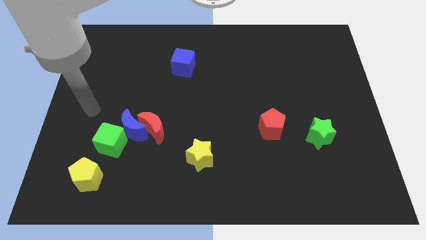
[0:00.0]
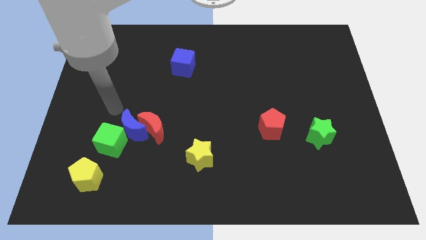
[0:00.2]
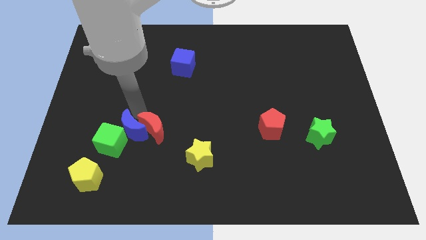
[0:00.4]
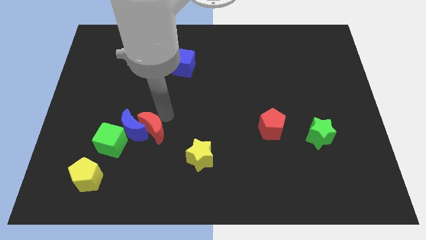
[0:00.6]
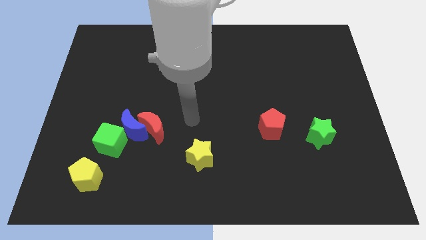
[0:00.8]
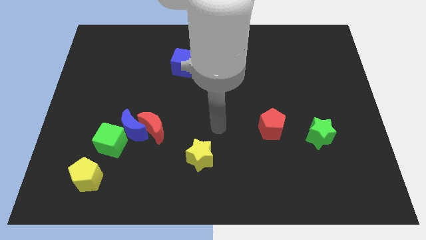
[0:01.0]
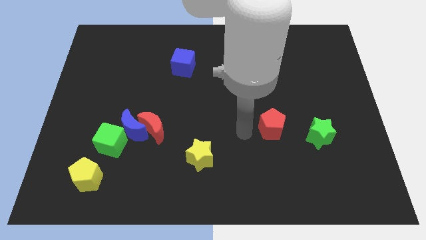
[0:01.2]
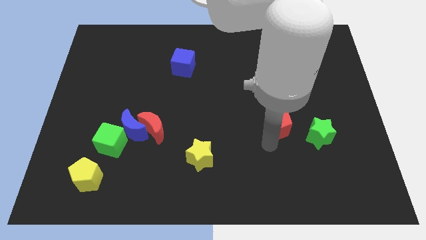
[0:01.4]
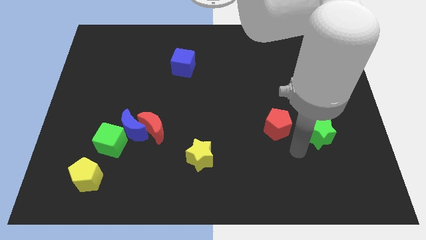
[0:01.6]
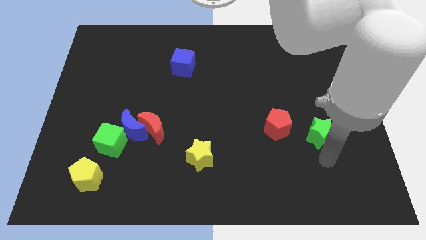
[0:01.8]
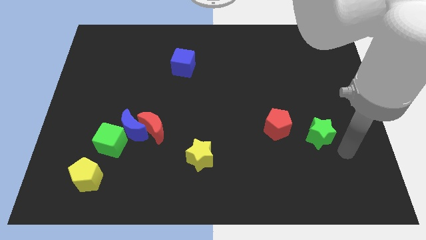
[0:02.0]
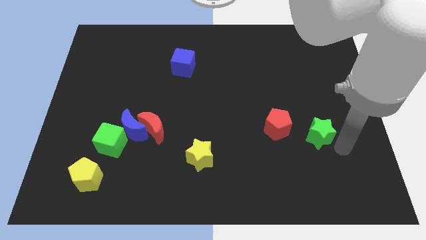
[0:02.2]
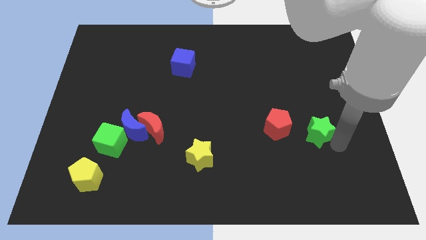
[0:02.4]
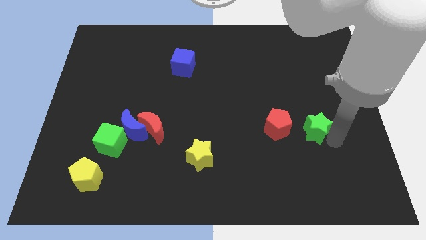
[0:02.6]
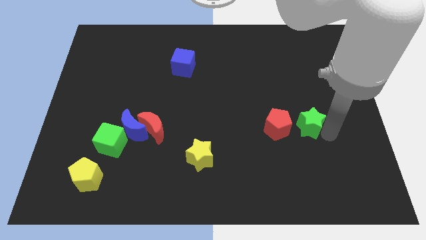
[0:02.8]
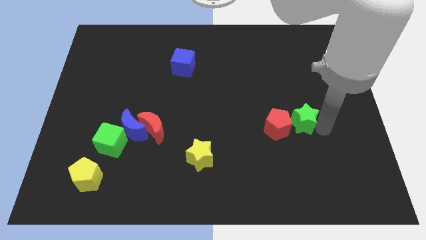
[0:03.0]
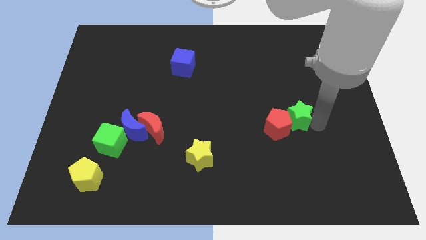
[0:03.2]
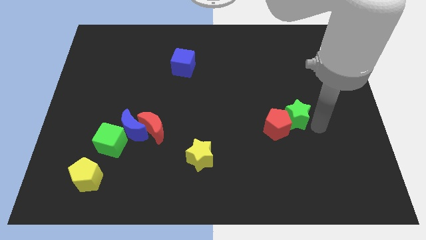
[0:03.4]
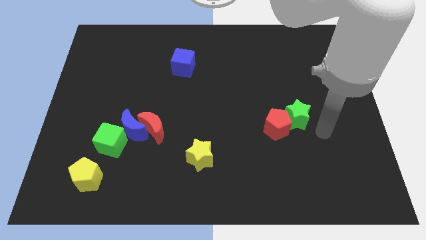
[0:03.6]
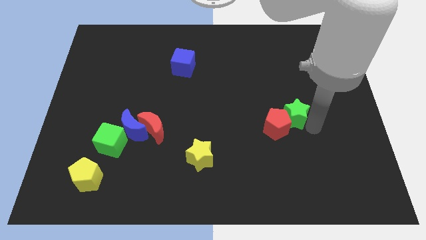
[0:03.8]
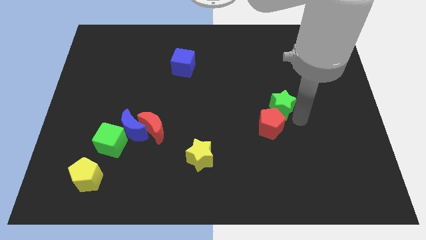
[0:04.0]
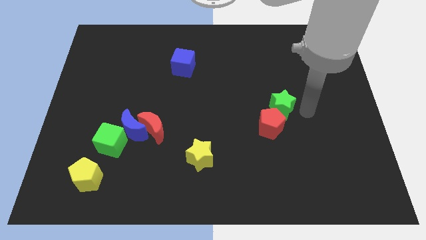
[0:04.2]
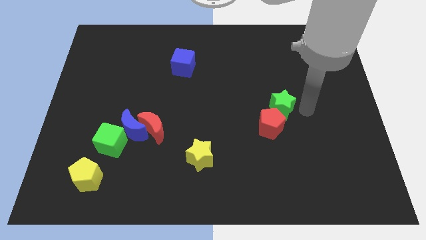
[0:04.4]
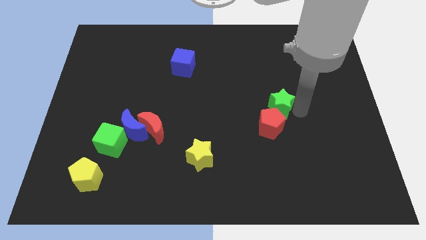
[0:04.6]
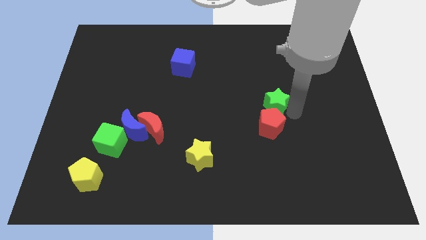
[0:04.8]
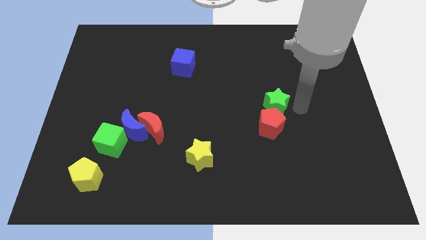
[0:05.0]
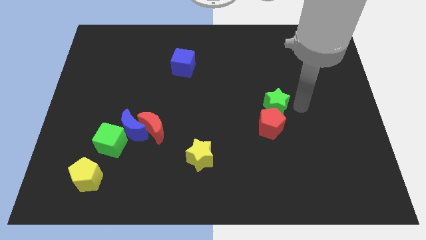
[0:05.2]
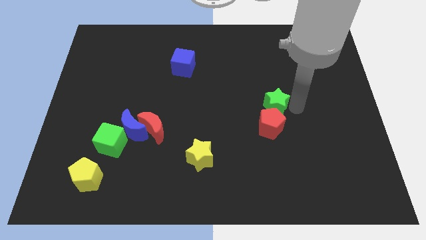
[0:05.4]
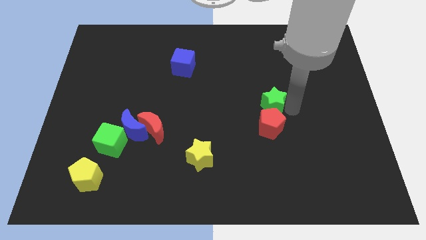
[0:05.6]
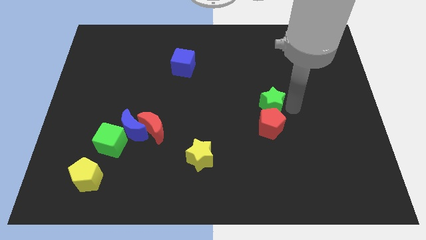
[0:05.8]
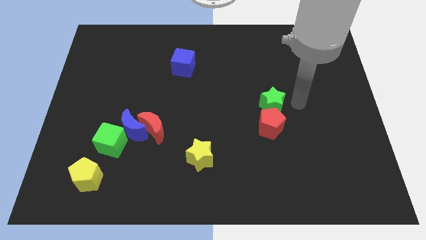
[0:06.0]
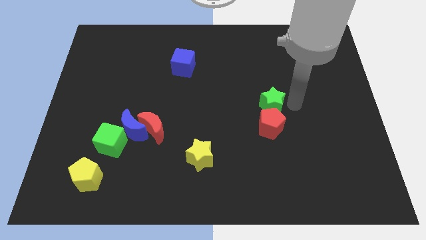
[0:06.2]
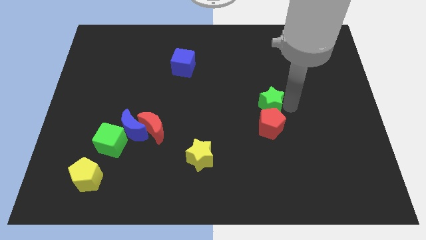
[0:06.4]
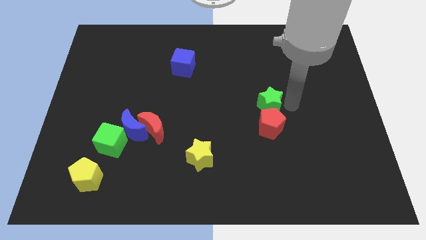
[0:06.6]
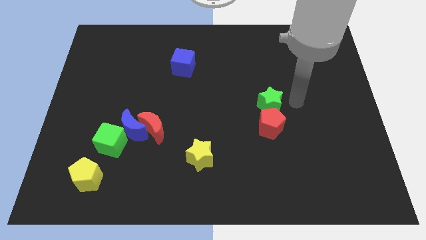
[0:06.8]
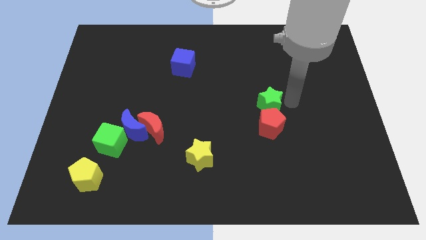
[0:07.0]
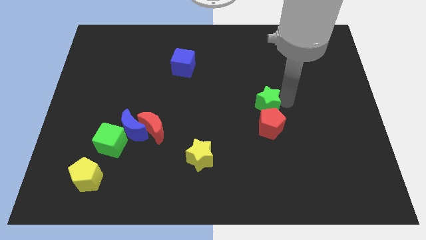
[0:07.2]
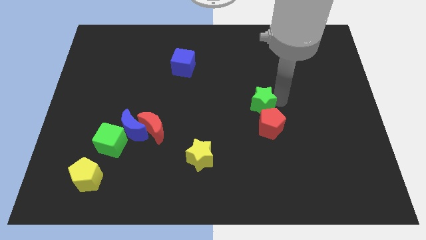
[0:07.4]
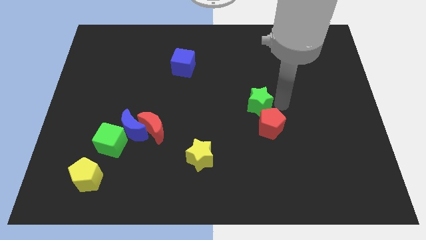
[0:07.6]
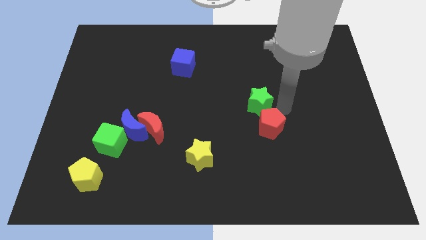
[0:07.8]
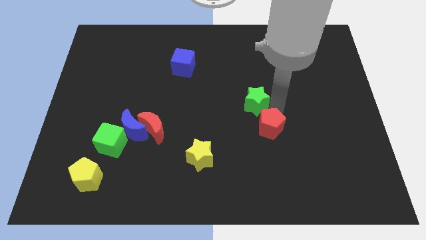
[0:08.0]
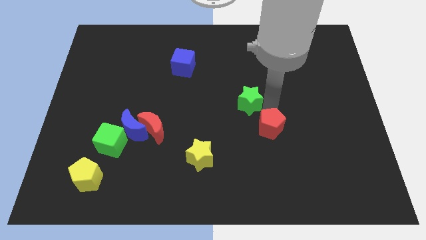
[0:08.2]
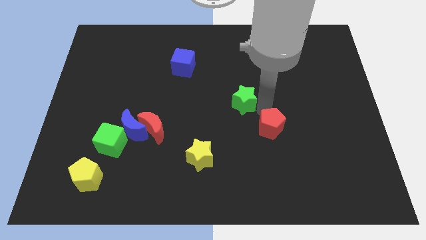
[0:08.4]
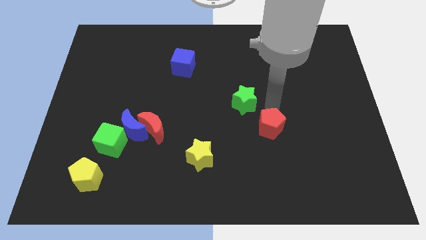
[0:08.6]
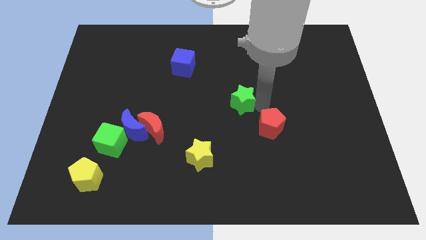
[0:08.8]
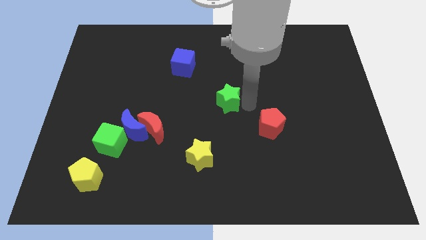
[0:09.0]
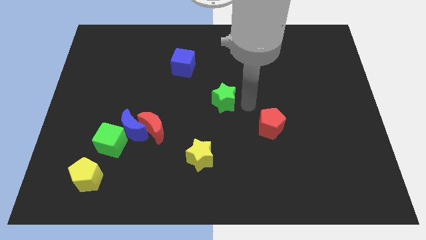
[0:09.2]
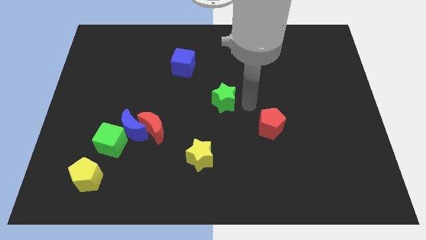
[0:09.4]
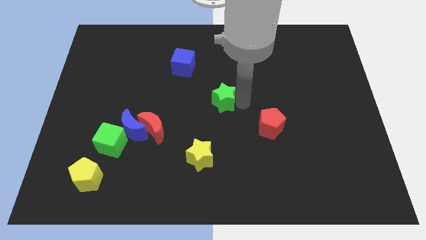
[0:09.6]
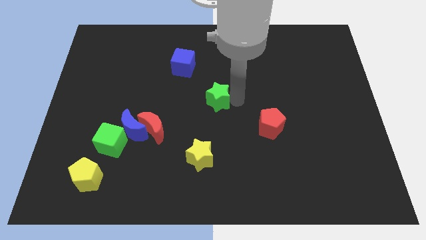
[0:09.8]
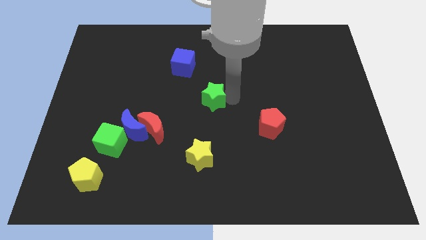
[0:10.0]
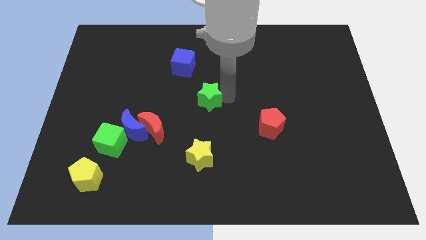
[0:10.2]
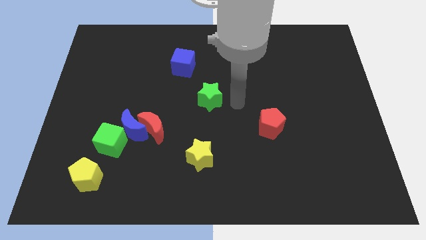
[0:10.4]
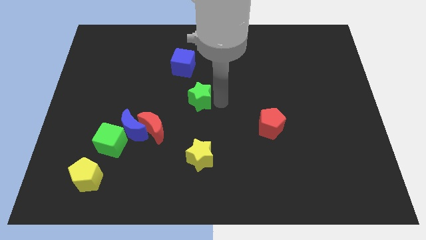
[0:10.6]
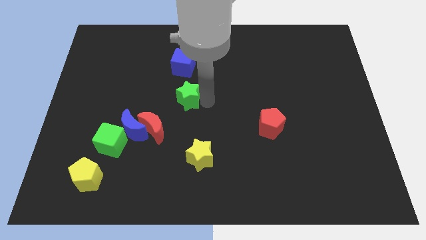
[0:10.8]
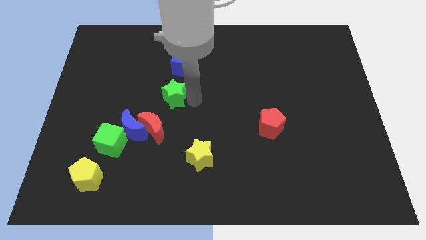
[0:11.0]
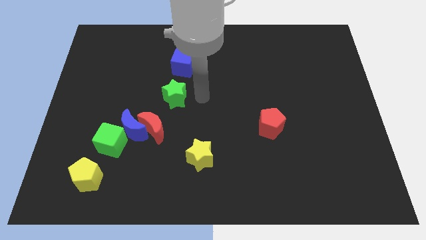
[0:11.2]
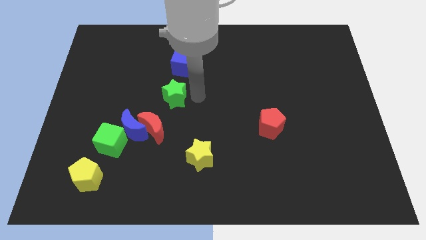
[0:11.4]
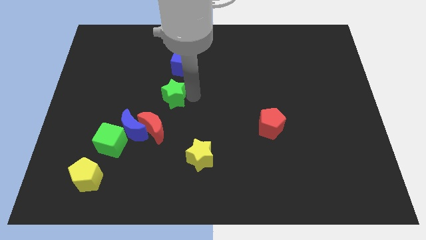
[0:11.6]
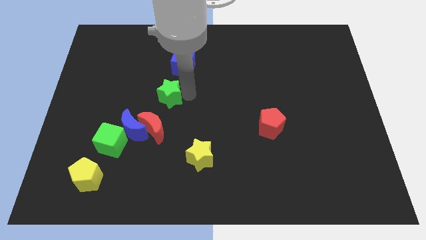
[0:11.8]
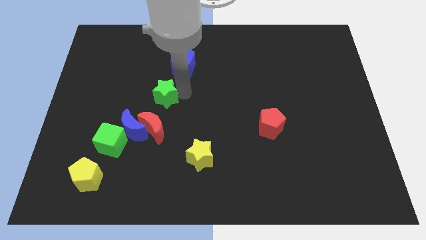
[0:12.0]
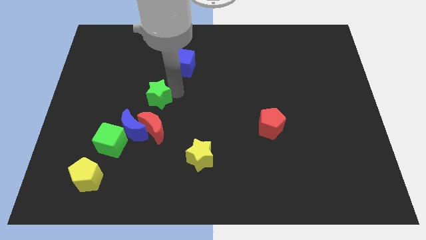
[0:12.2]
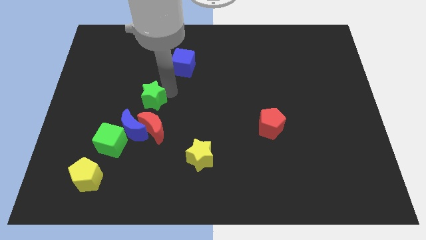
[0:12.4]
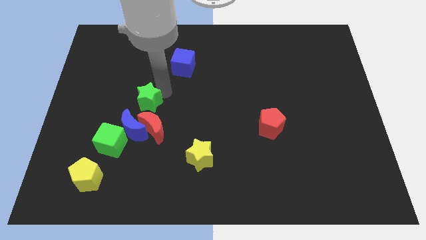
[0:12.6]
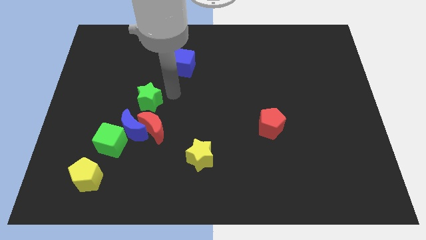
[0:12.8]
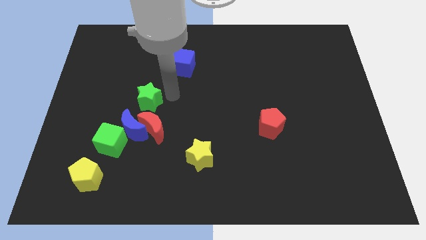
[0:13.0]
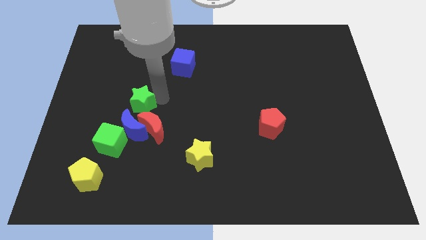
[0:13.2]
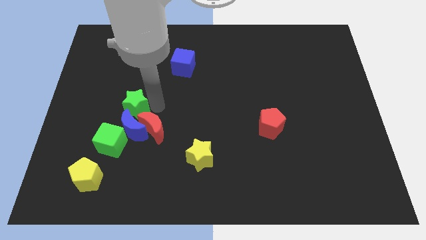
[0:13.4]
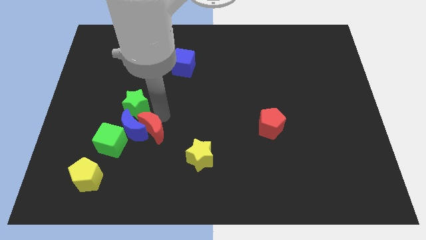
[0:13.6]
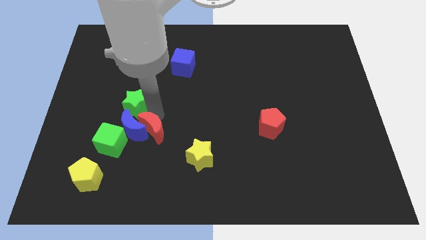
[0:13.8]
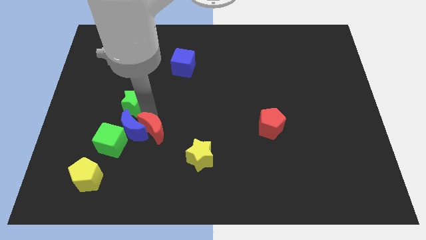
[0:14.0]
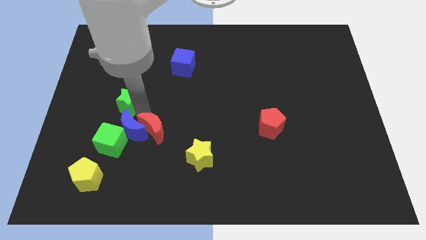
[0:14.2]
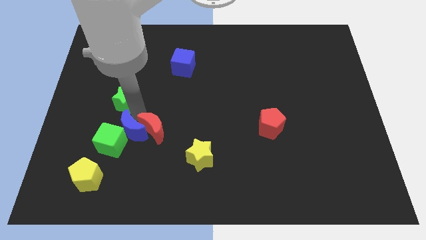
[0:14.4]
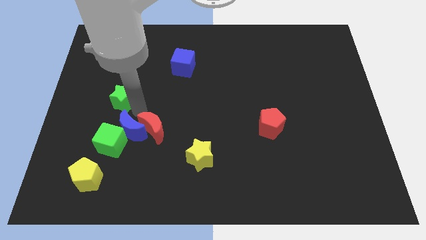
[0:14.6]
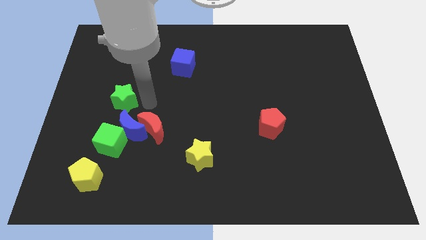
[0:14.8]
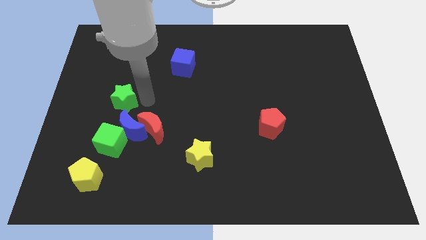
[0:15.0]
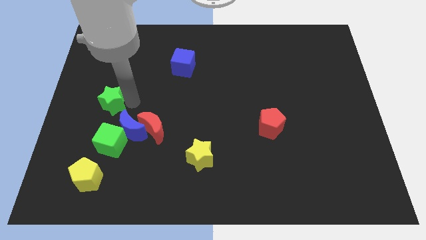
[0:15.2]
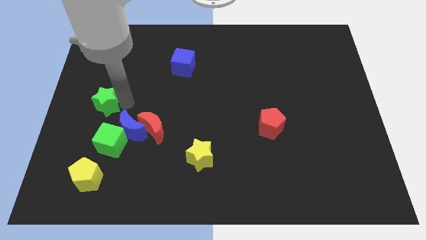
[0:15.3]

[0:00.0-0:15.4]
move the green star to the left side of the board
